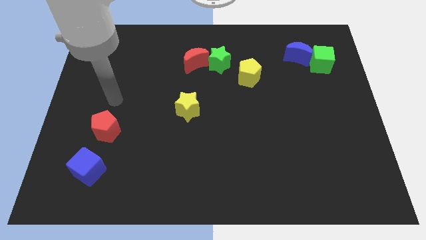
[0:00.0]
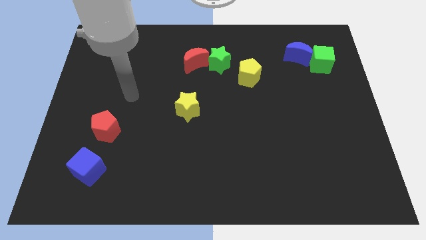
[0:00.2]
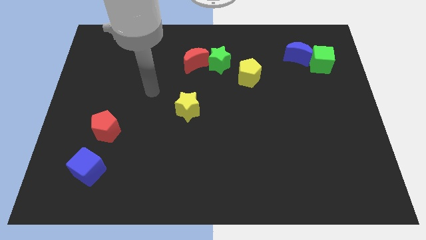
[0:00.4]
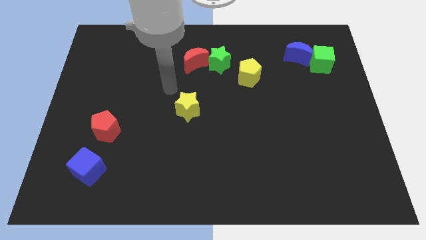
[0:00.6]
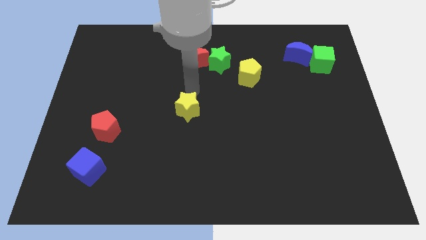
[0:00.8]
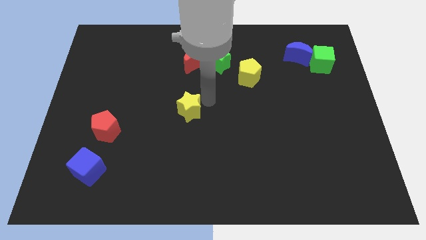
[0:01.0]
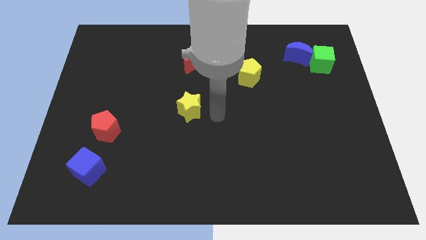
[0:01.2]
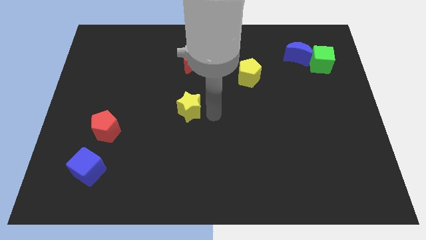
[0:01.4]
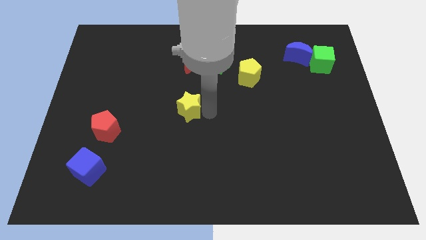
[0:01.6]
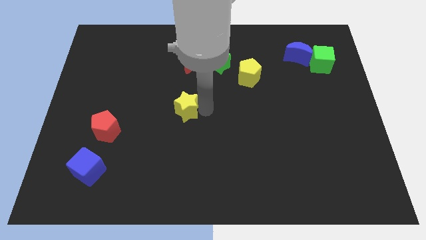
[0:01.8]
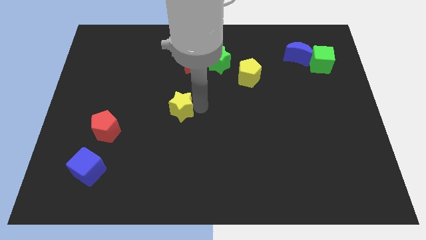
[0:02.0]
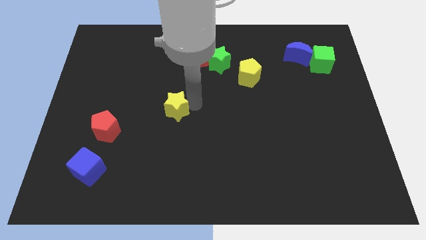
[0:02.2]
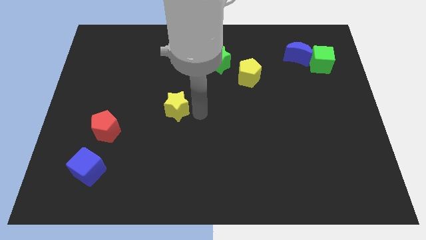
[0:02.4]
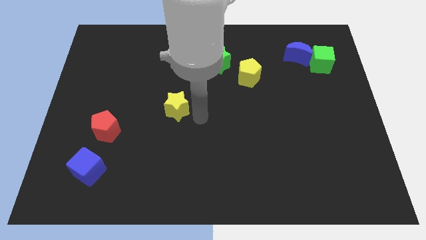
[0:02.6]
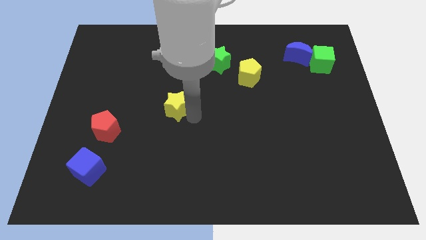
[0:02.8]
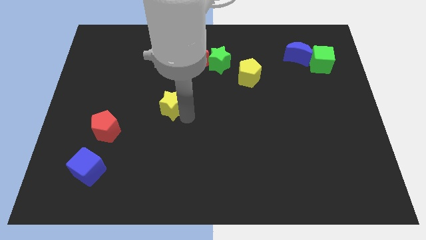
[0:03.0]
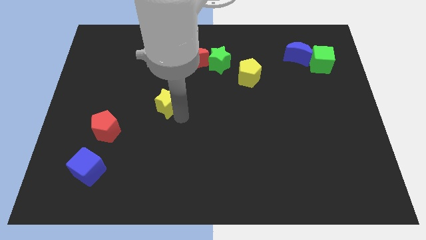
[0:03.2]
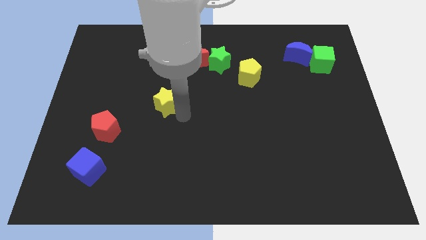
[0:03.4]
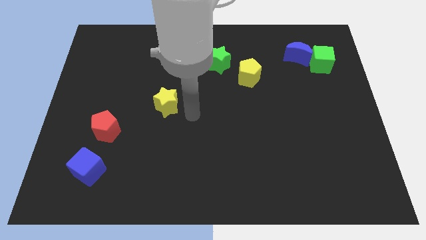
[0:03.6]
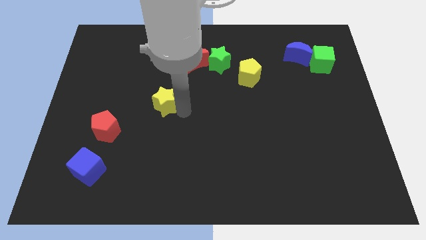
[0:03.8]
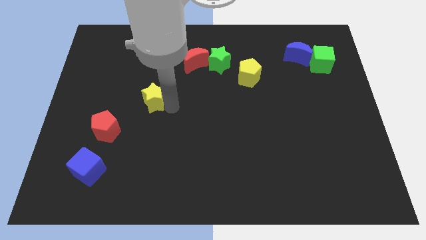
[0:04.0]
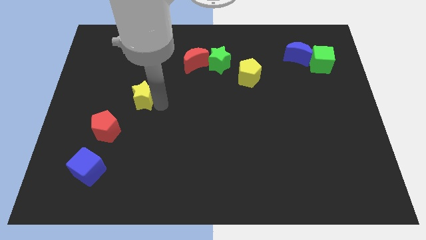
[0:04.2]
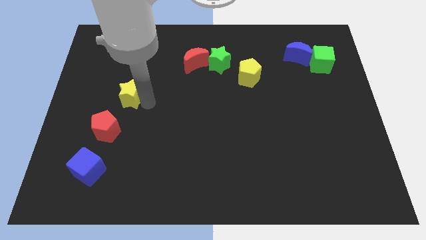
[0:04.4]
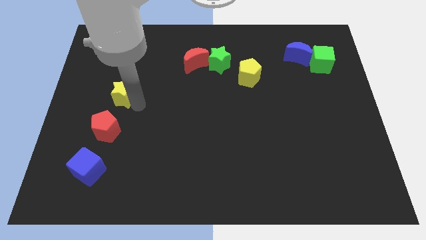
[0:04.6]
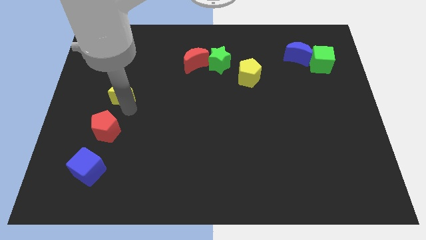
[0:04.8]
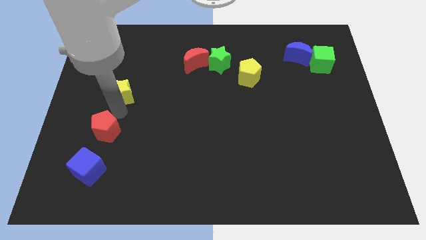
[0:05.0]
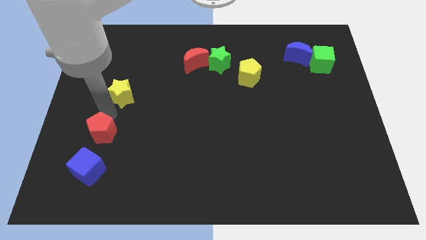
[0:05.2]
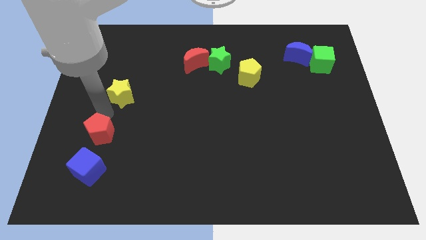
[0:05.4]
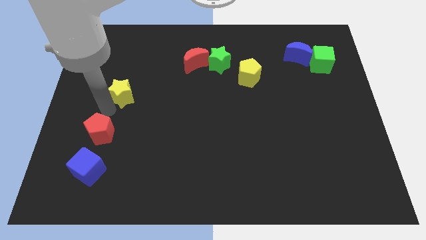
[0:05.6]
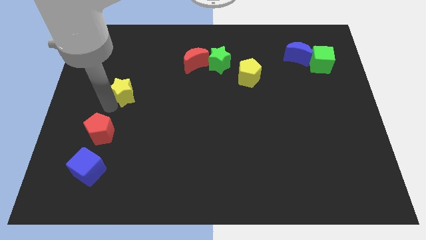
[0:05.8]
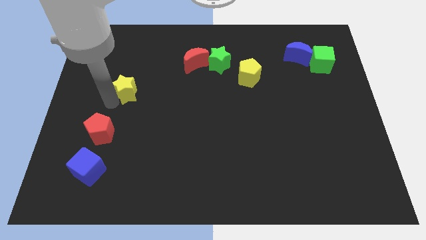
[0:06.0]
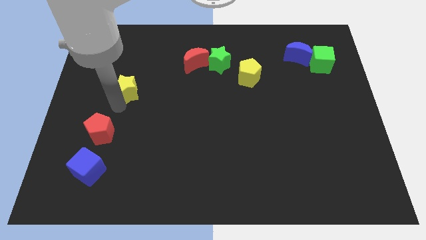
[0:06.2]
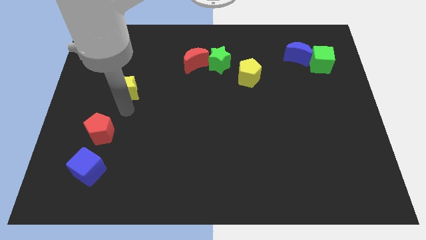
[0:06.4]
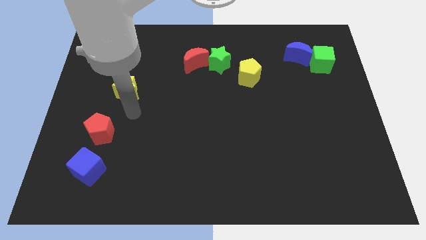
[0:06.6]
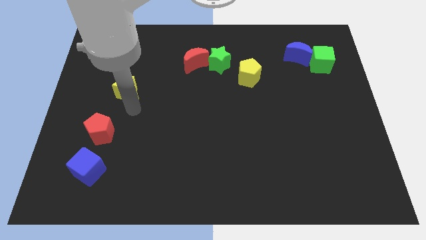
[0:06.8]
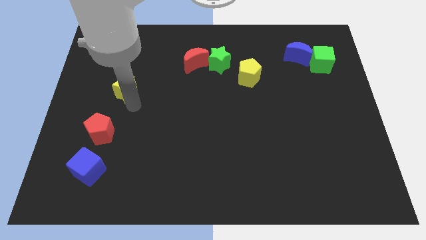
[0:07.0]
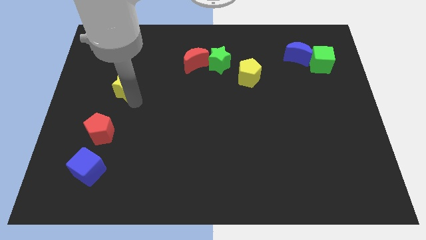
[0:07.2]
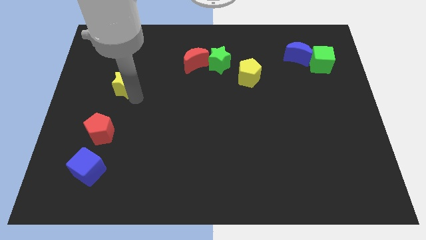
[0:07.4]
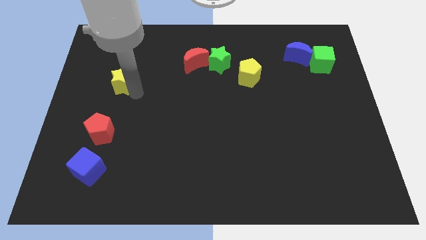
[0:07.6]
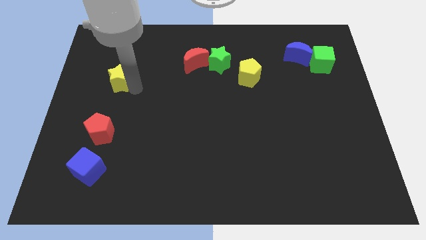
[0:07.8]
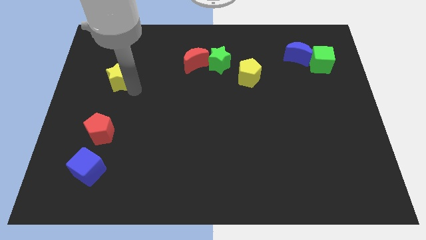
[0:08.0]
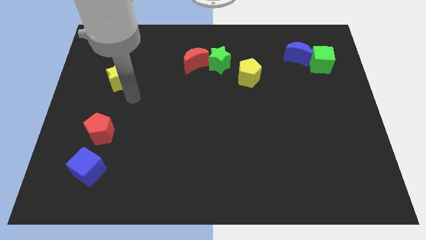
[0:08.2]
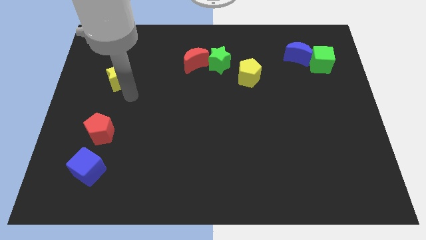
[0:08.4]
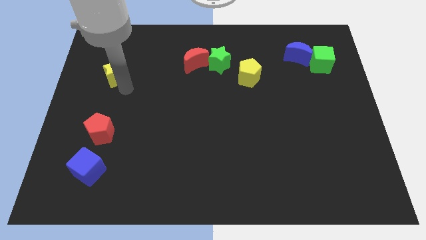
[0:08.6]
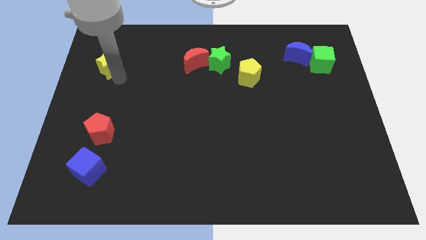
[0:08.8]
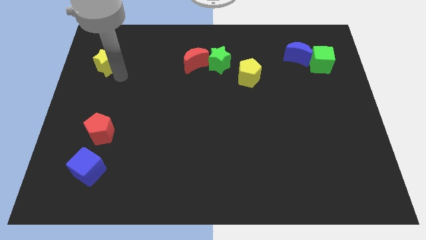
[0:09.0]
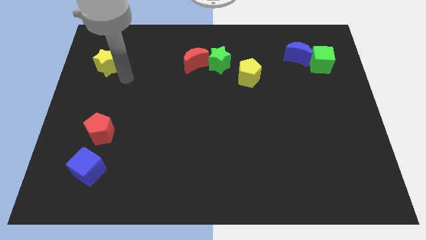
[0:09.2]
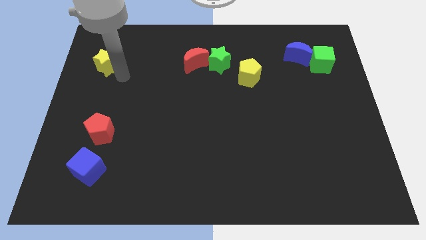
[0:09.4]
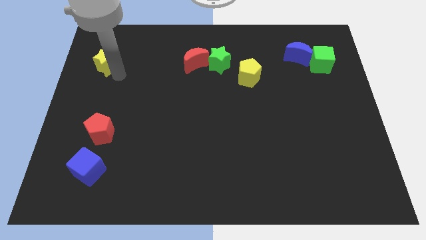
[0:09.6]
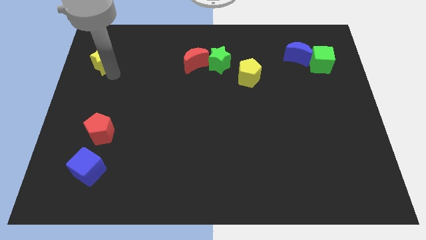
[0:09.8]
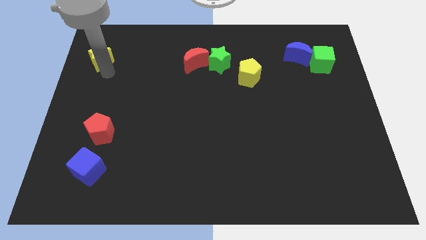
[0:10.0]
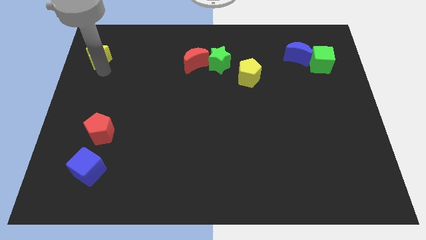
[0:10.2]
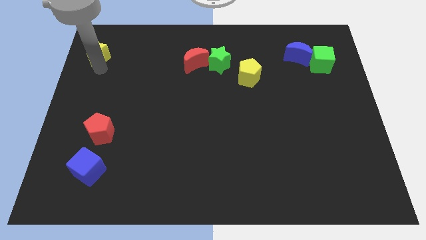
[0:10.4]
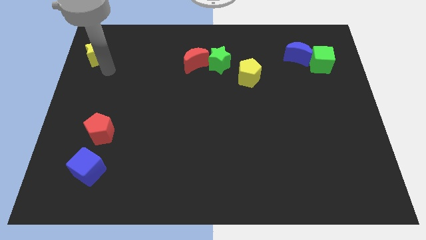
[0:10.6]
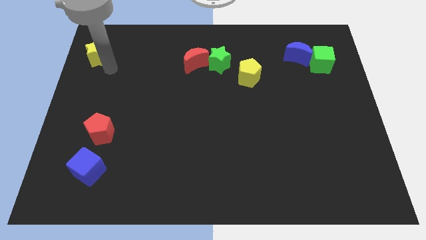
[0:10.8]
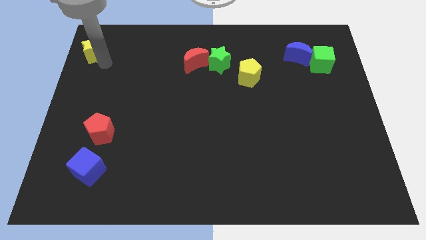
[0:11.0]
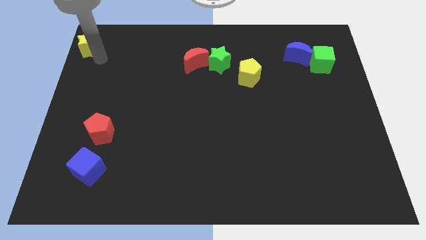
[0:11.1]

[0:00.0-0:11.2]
slide the yellow star to the upper left corner
